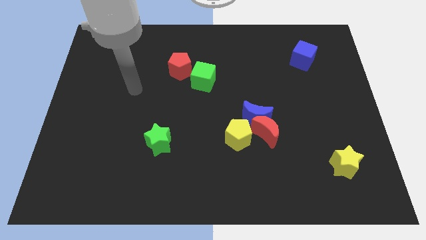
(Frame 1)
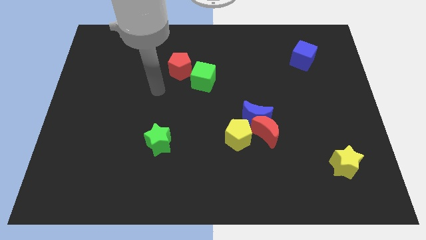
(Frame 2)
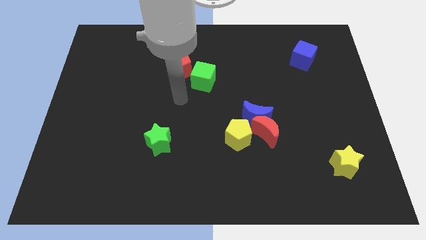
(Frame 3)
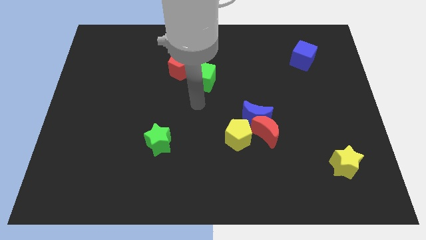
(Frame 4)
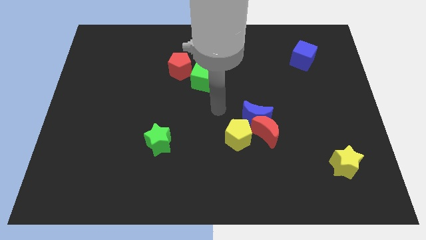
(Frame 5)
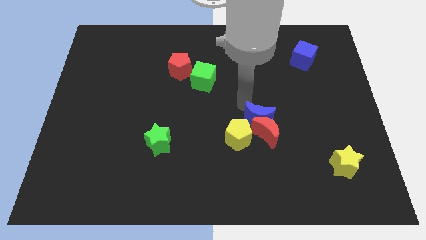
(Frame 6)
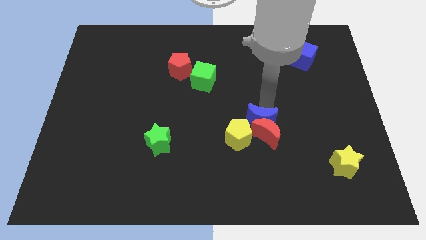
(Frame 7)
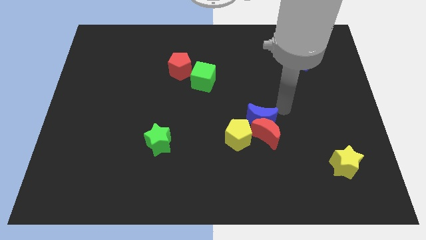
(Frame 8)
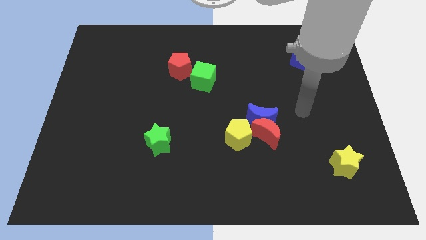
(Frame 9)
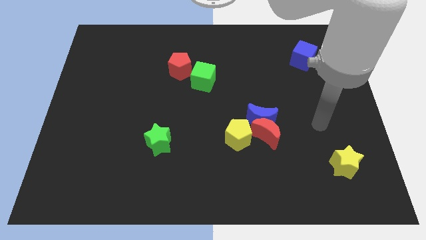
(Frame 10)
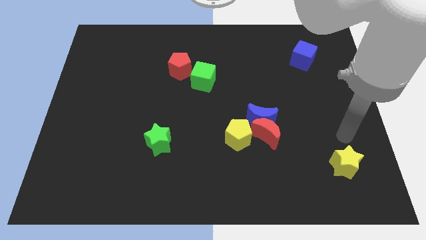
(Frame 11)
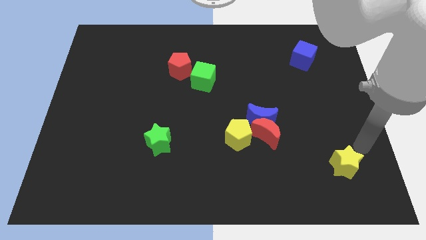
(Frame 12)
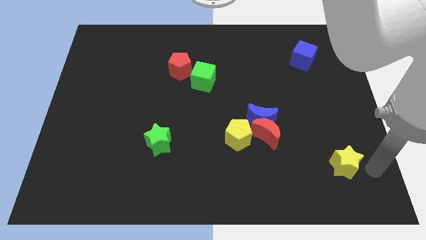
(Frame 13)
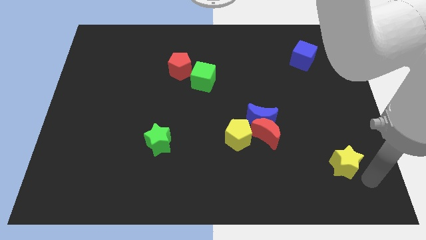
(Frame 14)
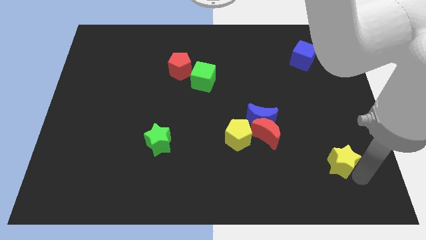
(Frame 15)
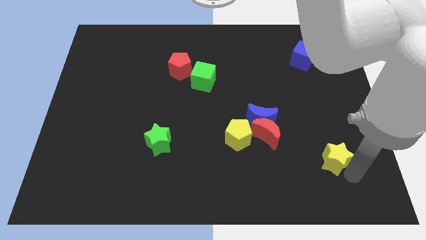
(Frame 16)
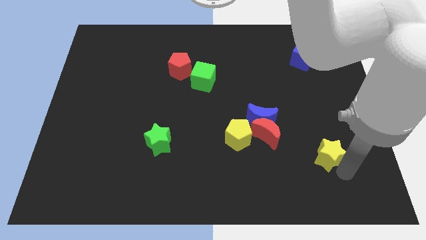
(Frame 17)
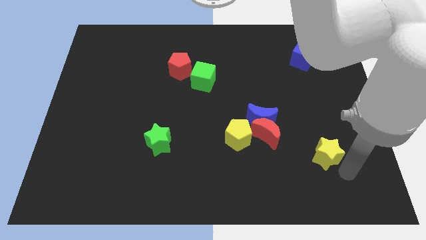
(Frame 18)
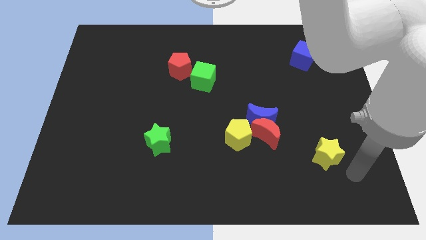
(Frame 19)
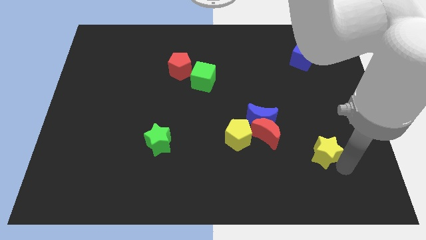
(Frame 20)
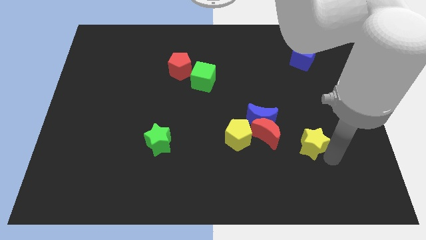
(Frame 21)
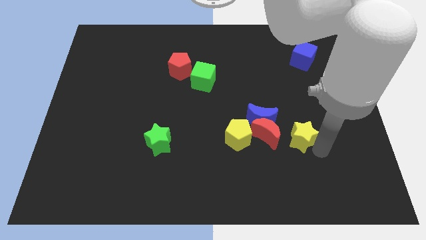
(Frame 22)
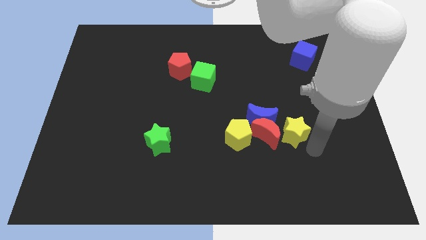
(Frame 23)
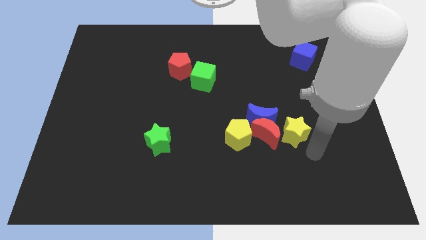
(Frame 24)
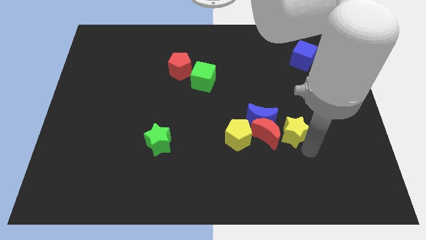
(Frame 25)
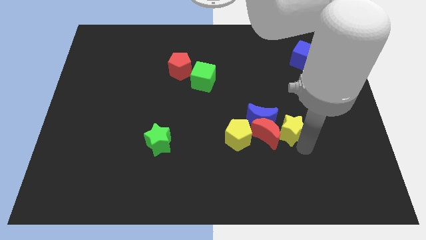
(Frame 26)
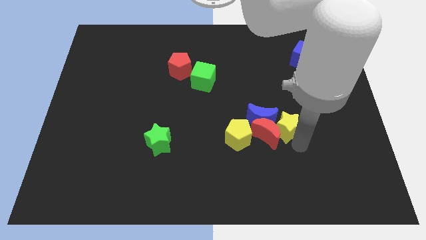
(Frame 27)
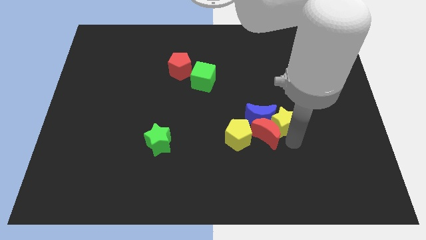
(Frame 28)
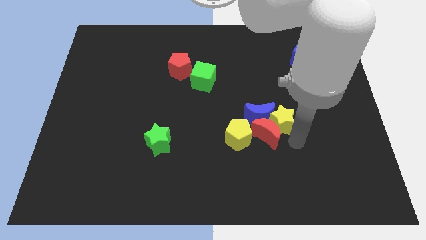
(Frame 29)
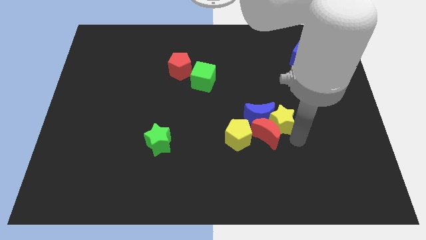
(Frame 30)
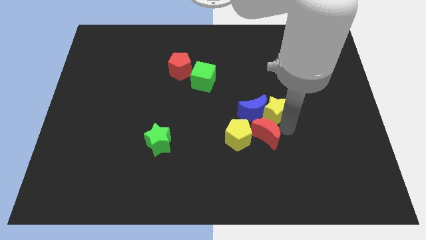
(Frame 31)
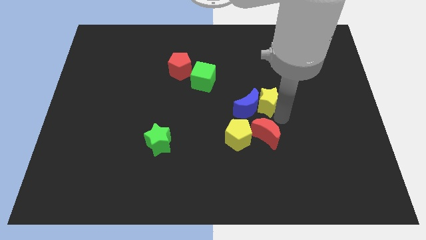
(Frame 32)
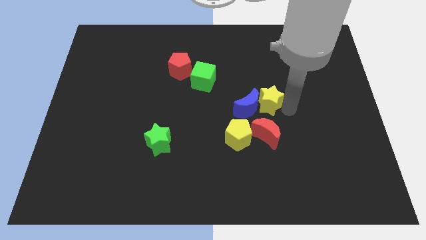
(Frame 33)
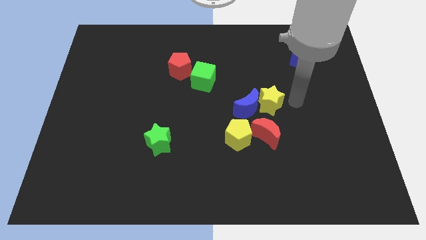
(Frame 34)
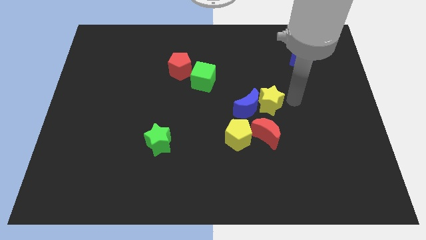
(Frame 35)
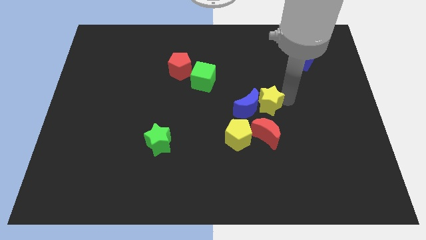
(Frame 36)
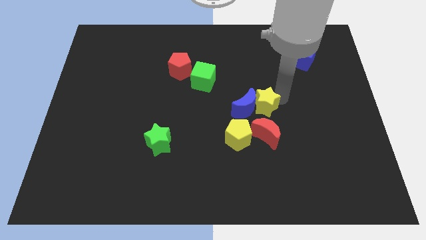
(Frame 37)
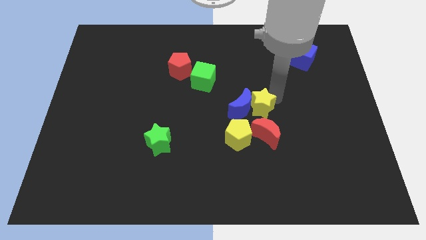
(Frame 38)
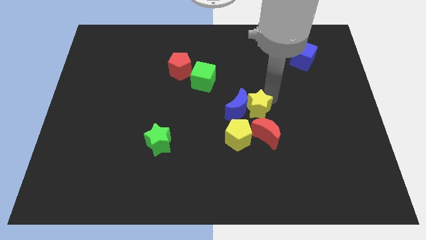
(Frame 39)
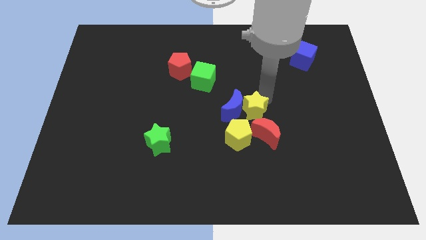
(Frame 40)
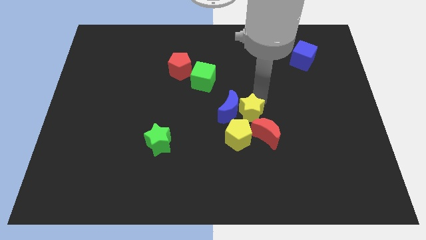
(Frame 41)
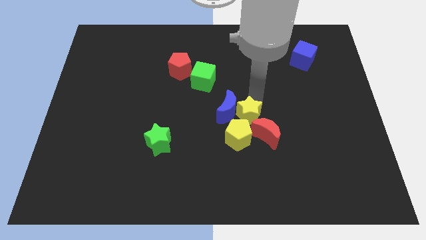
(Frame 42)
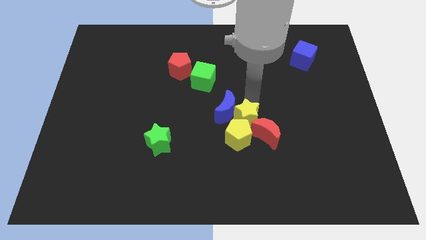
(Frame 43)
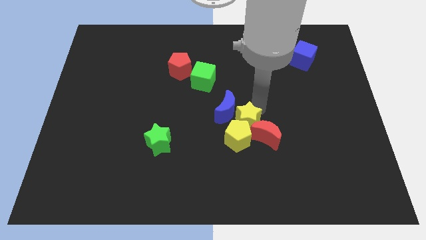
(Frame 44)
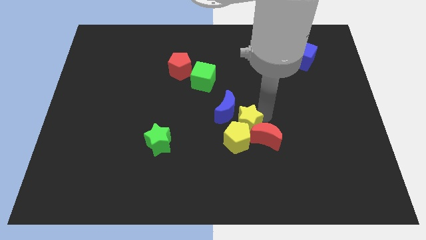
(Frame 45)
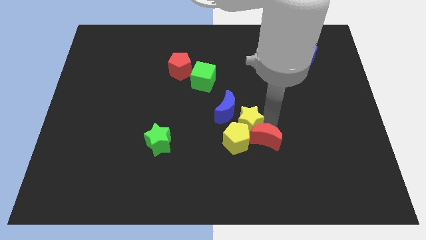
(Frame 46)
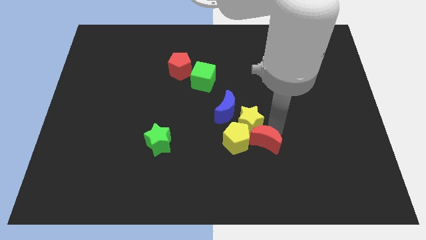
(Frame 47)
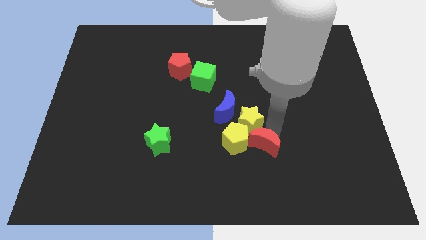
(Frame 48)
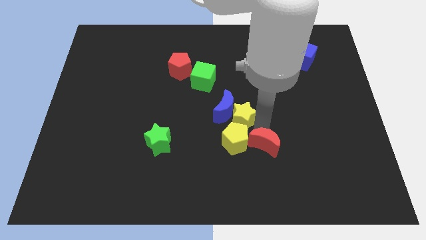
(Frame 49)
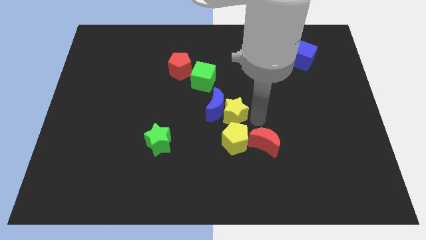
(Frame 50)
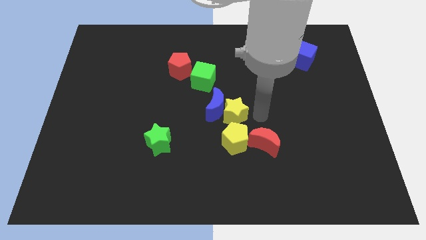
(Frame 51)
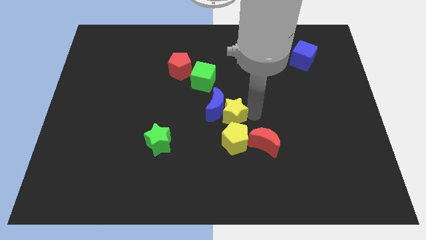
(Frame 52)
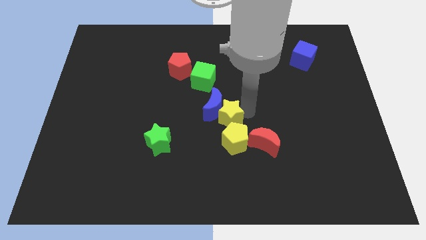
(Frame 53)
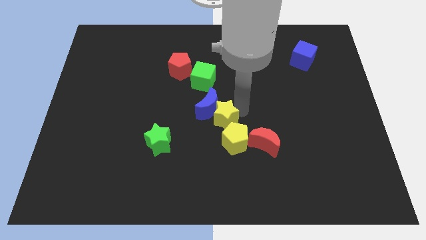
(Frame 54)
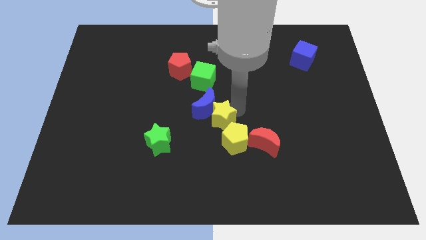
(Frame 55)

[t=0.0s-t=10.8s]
move the yellow star below the green cube
